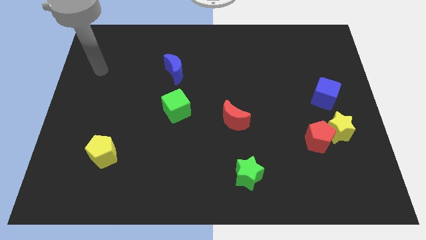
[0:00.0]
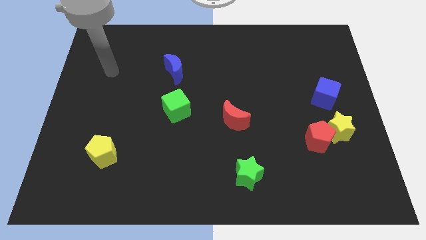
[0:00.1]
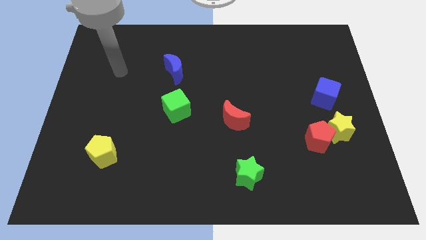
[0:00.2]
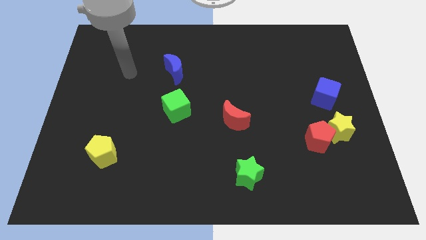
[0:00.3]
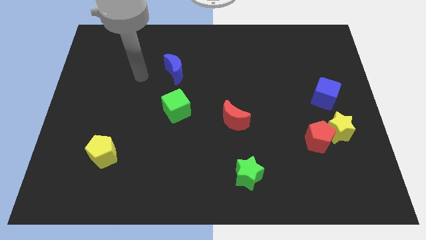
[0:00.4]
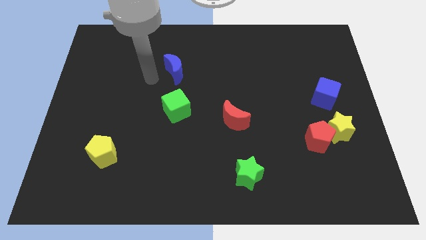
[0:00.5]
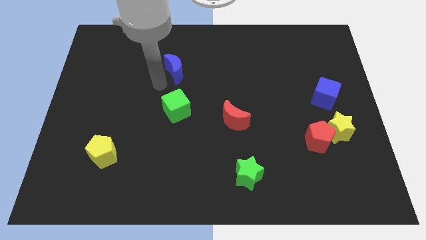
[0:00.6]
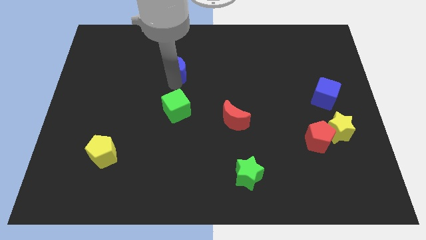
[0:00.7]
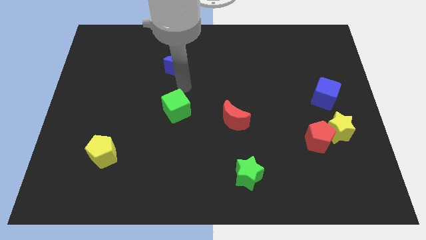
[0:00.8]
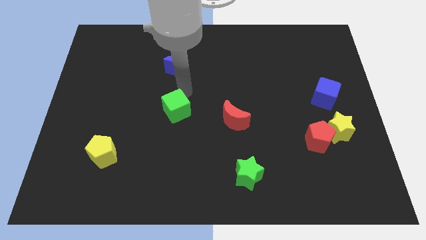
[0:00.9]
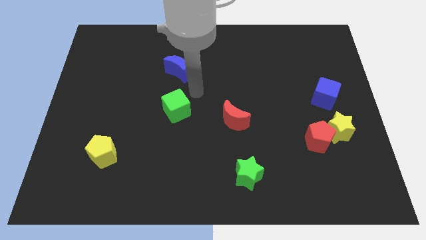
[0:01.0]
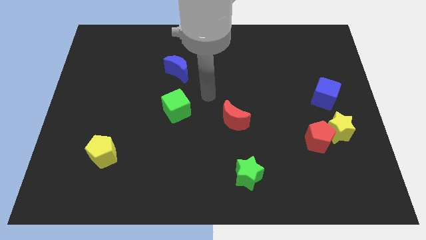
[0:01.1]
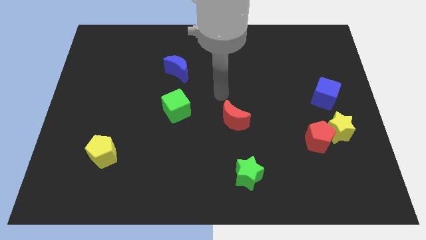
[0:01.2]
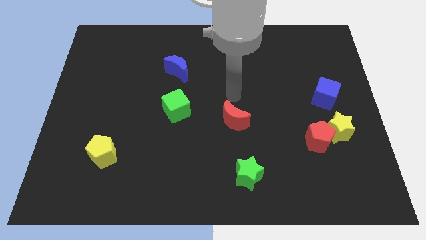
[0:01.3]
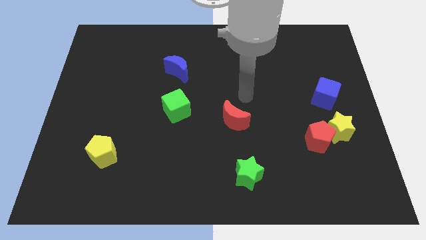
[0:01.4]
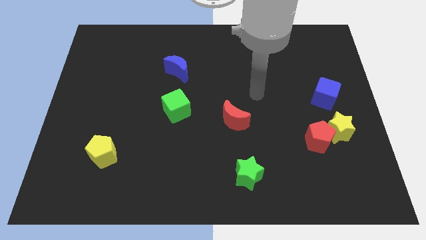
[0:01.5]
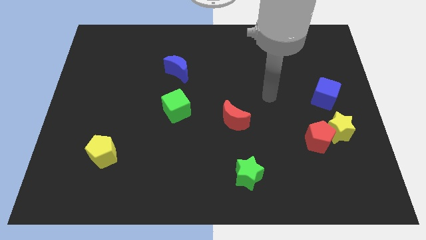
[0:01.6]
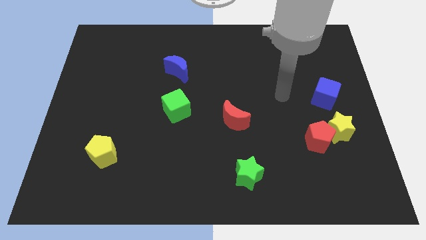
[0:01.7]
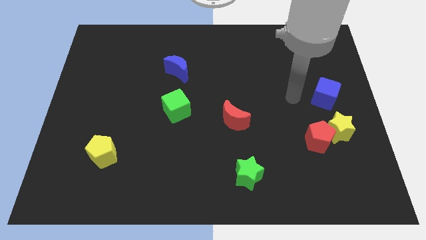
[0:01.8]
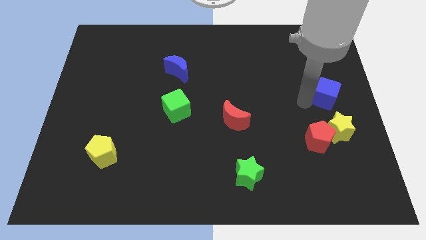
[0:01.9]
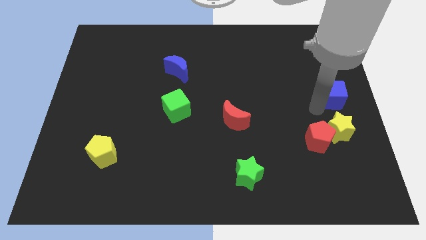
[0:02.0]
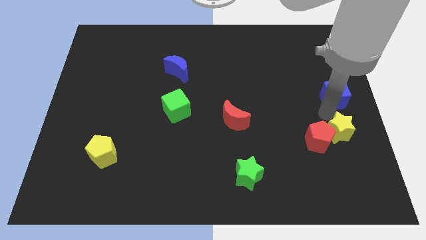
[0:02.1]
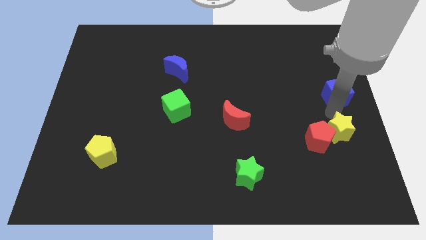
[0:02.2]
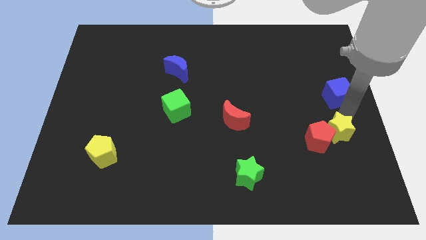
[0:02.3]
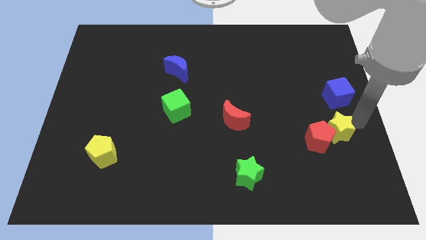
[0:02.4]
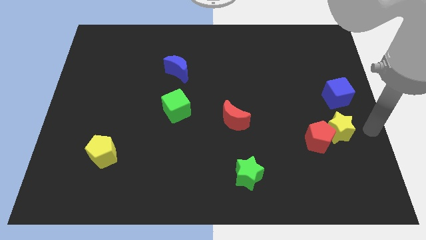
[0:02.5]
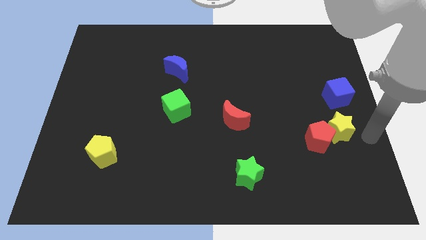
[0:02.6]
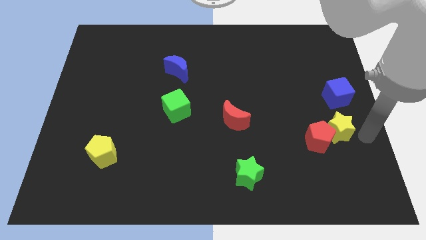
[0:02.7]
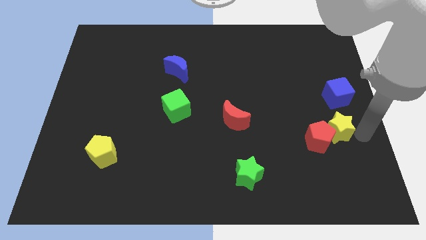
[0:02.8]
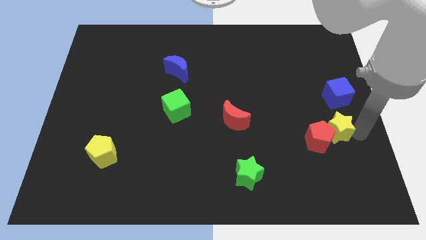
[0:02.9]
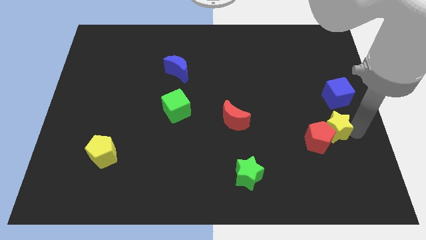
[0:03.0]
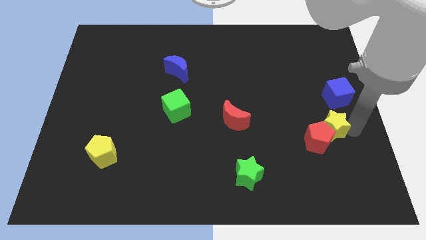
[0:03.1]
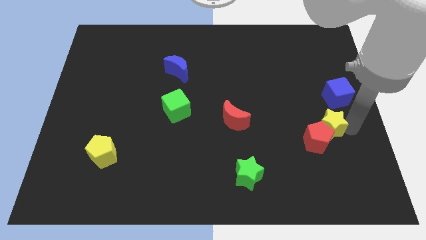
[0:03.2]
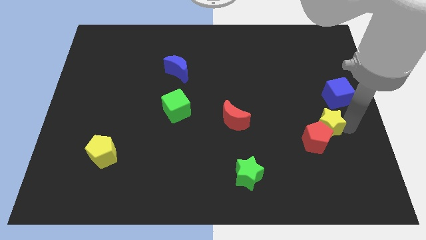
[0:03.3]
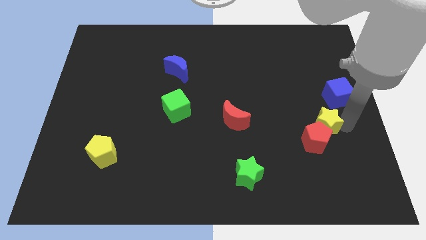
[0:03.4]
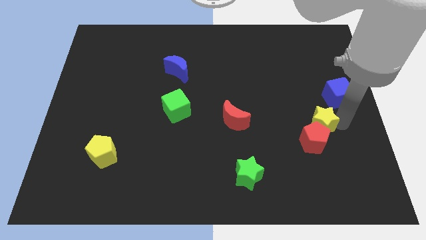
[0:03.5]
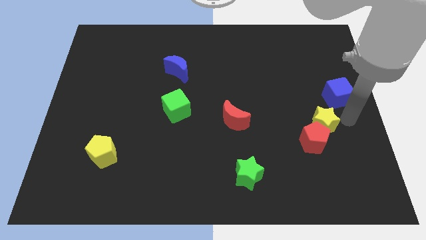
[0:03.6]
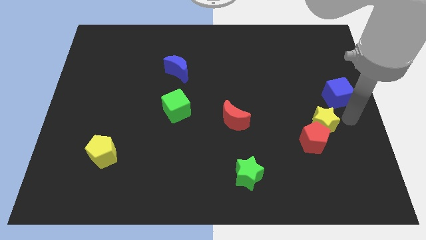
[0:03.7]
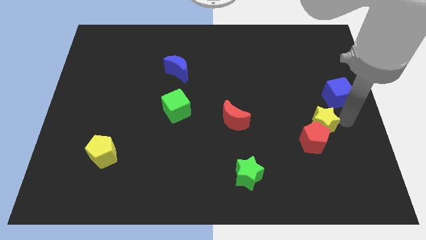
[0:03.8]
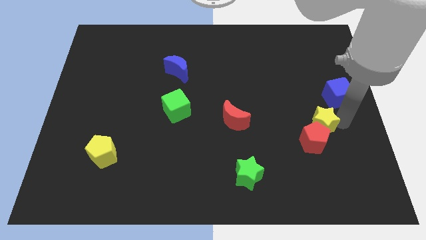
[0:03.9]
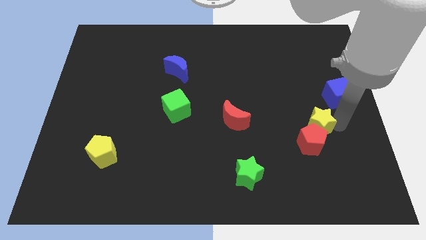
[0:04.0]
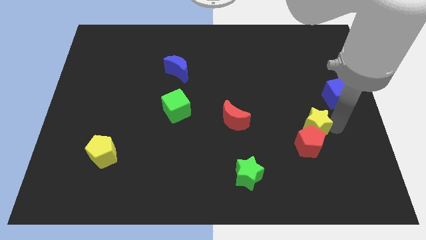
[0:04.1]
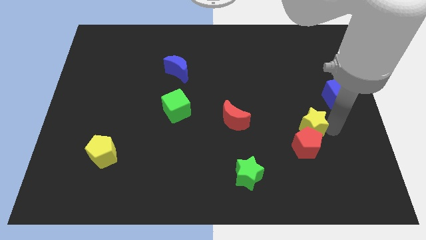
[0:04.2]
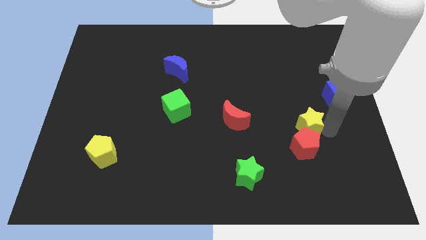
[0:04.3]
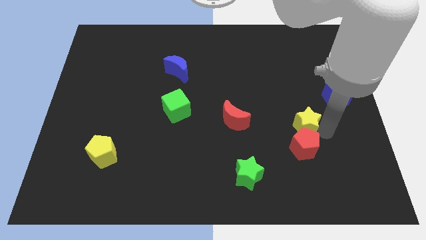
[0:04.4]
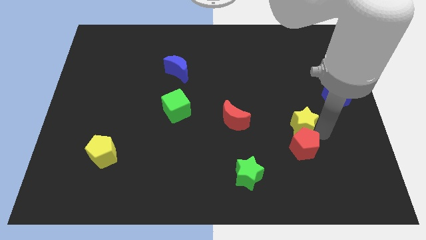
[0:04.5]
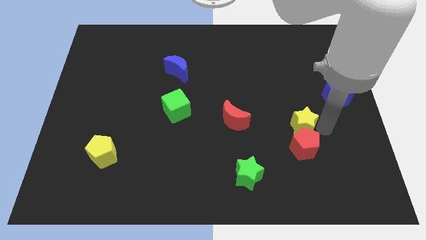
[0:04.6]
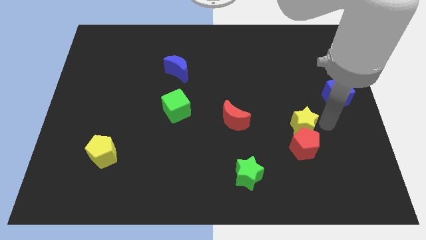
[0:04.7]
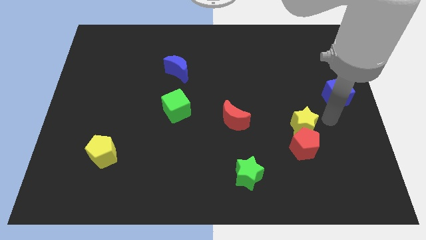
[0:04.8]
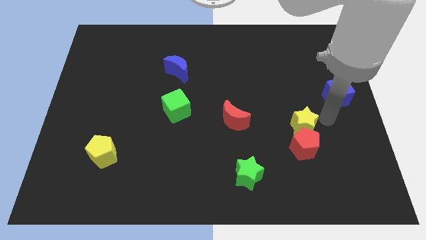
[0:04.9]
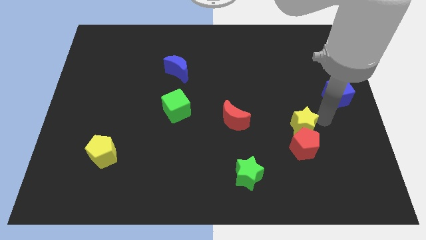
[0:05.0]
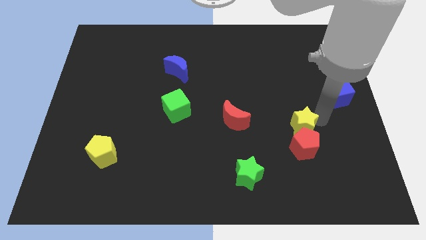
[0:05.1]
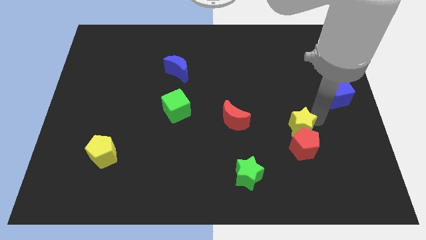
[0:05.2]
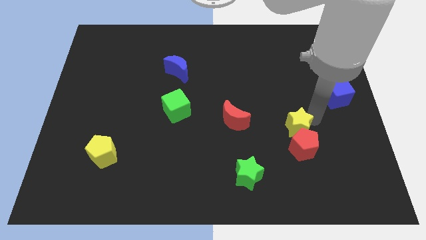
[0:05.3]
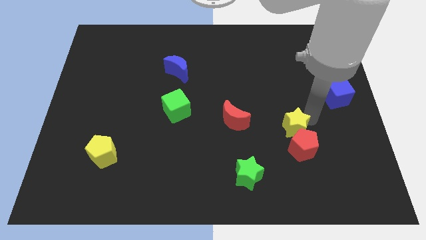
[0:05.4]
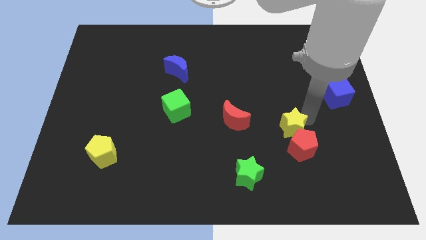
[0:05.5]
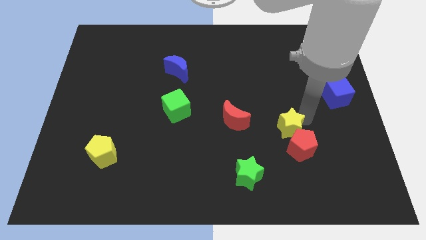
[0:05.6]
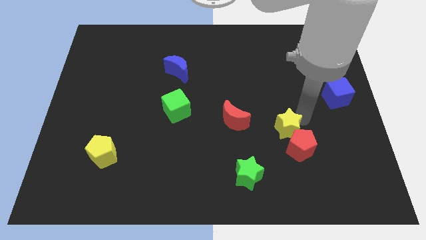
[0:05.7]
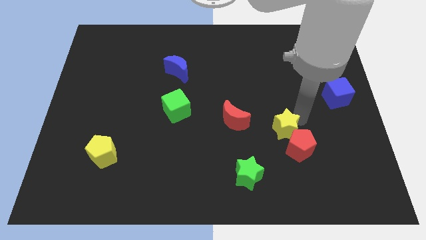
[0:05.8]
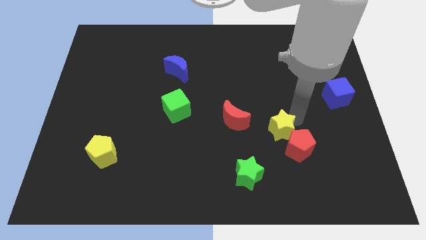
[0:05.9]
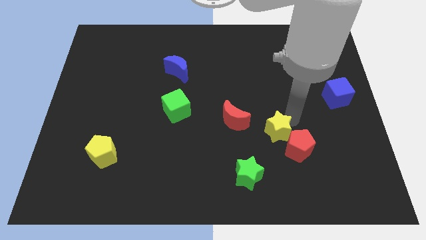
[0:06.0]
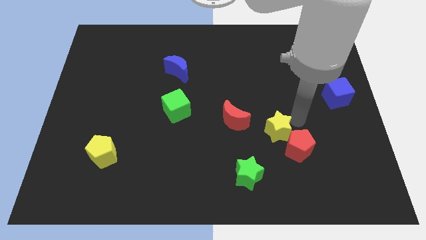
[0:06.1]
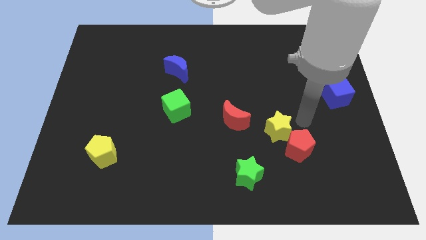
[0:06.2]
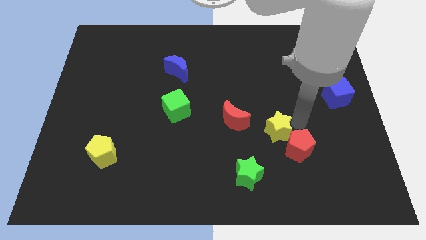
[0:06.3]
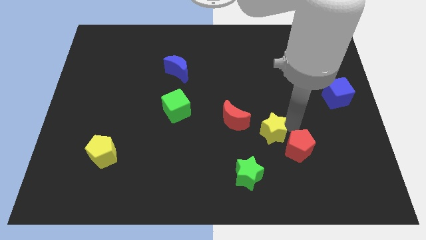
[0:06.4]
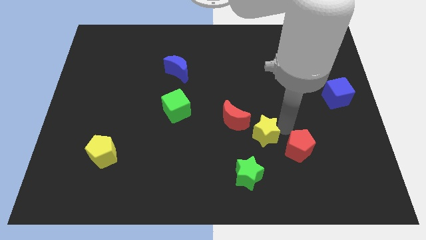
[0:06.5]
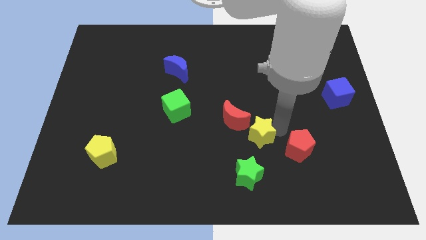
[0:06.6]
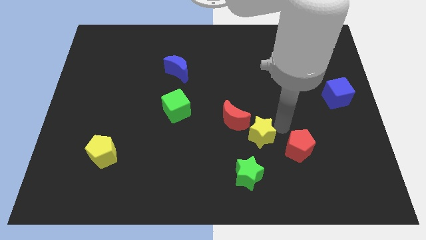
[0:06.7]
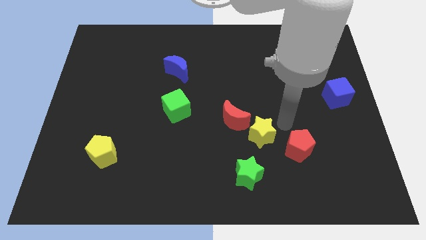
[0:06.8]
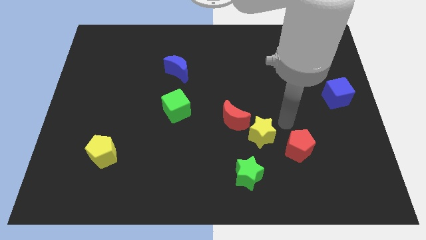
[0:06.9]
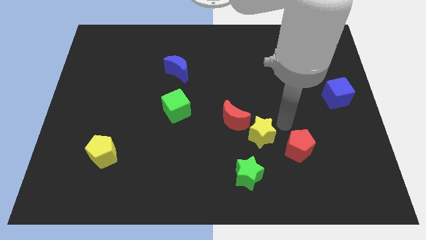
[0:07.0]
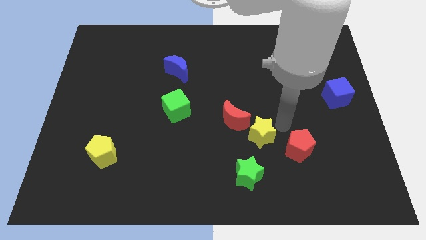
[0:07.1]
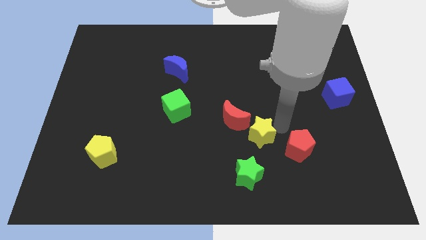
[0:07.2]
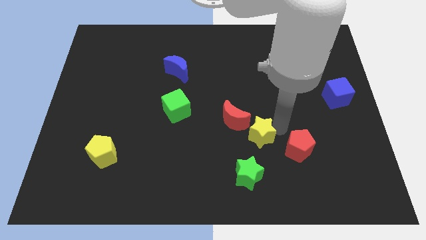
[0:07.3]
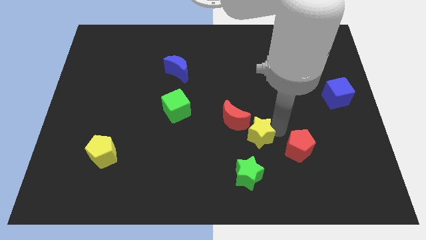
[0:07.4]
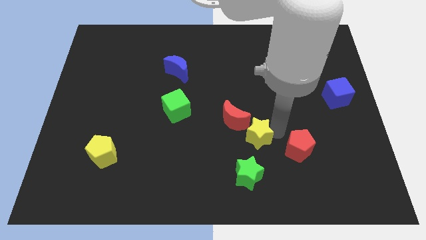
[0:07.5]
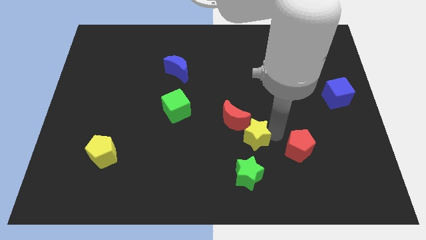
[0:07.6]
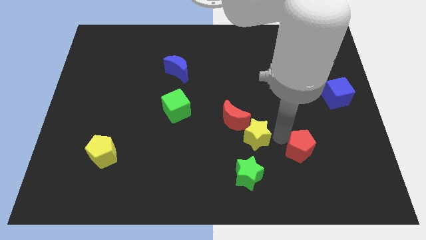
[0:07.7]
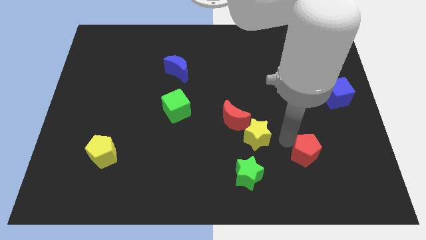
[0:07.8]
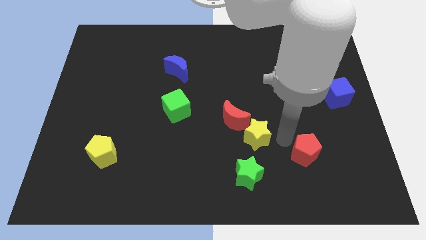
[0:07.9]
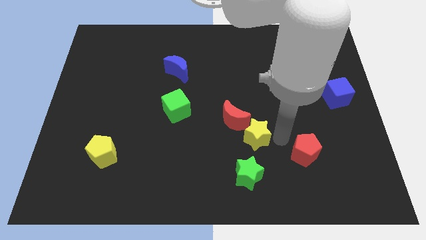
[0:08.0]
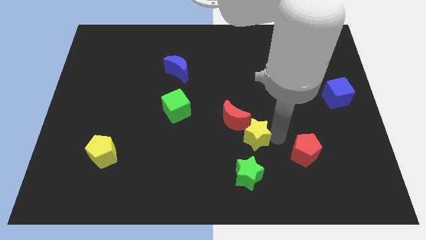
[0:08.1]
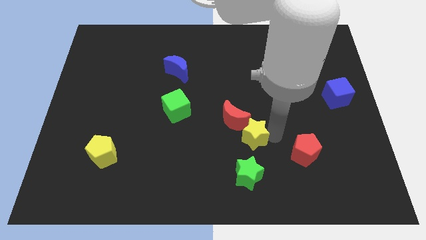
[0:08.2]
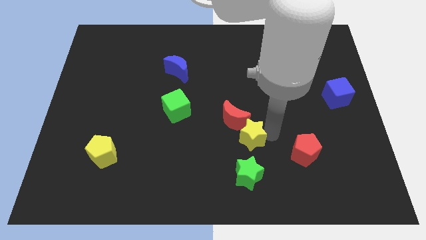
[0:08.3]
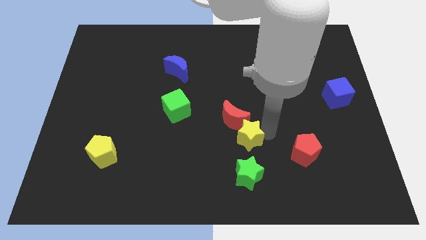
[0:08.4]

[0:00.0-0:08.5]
move the yellow star to the left
